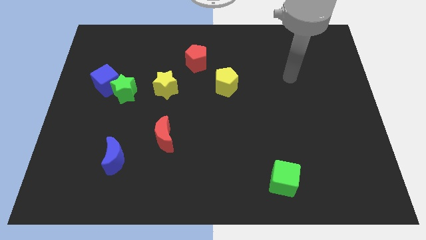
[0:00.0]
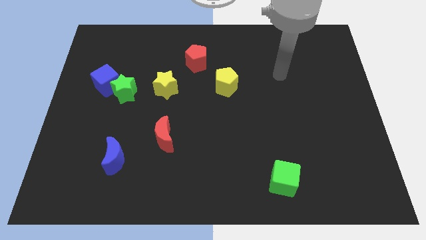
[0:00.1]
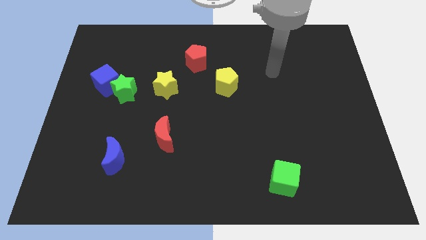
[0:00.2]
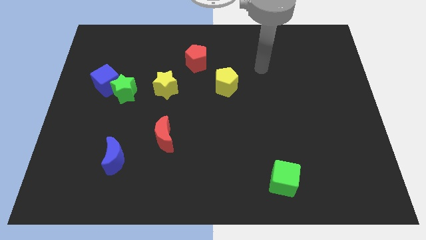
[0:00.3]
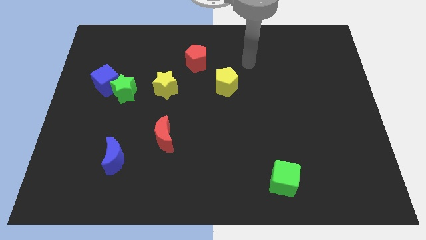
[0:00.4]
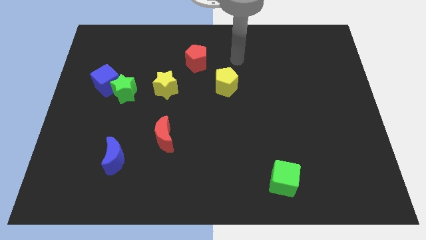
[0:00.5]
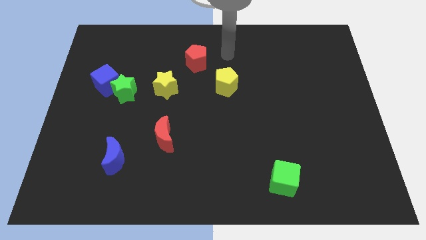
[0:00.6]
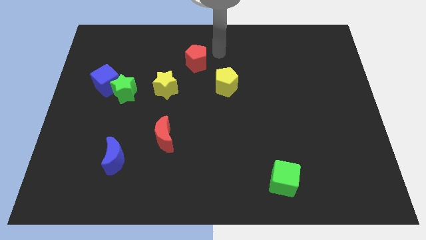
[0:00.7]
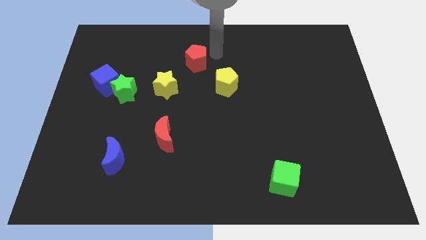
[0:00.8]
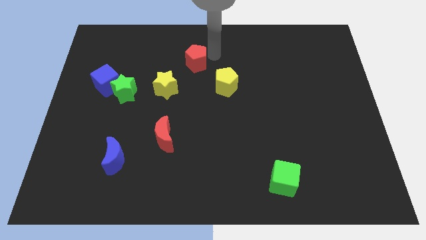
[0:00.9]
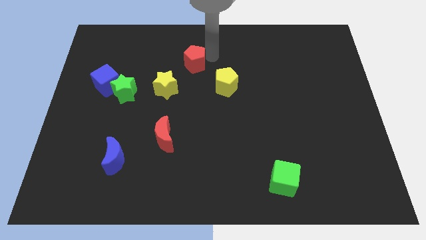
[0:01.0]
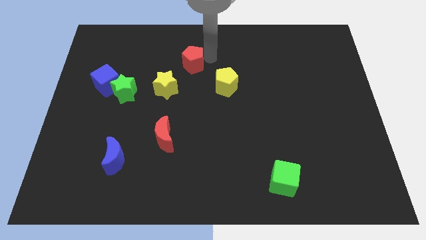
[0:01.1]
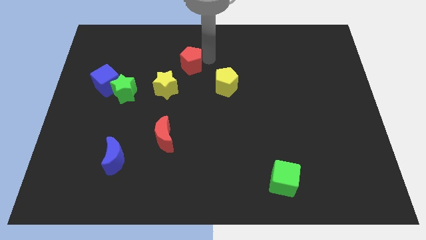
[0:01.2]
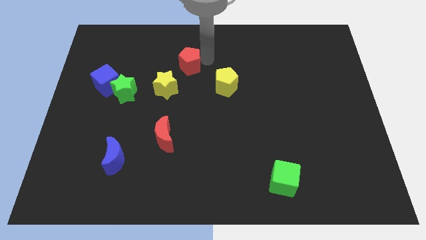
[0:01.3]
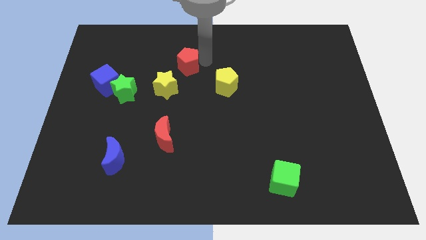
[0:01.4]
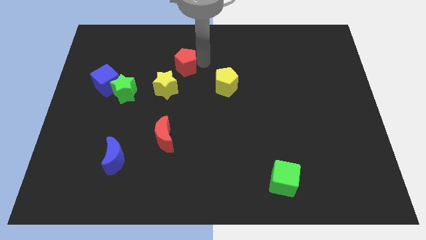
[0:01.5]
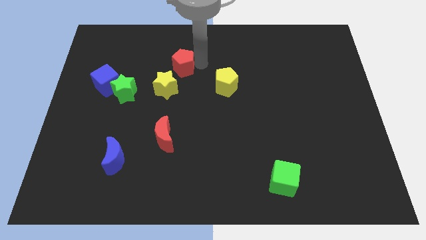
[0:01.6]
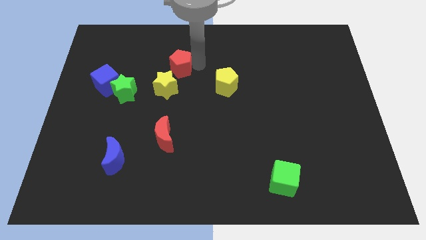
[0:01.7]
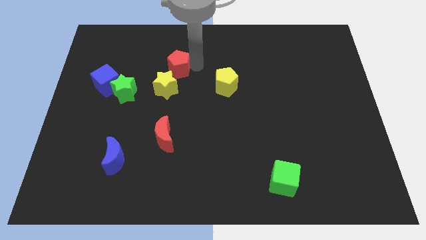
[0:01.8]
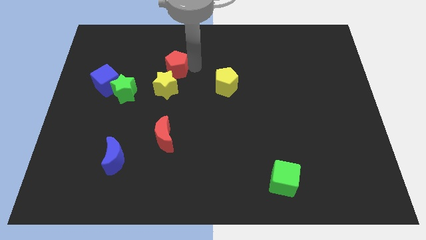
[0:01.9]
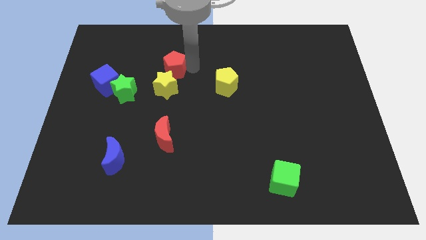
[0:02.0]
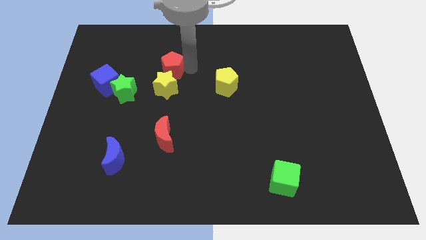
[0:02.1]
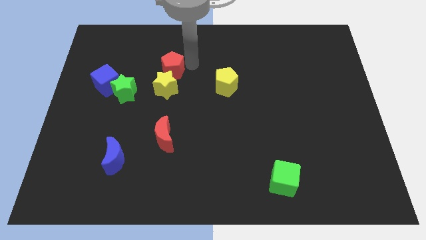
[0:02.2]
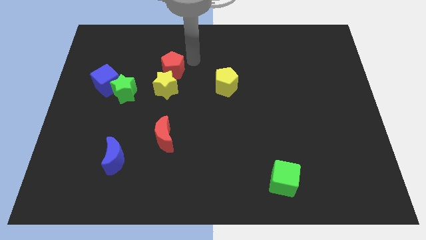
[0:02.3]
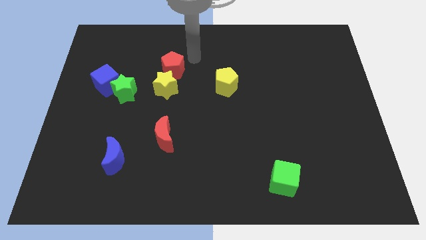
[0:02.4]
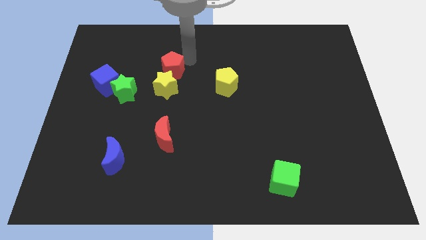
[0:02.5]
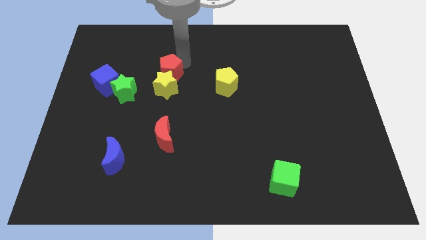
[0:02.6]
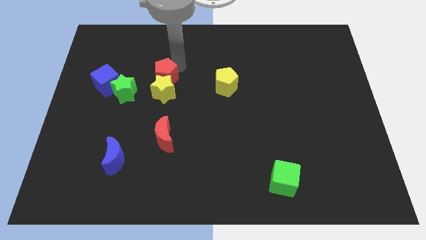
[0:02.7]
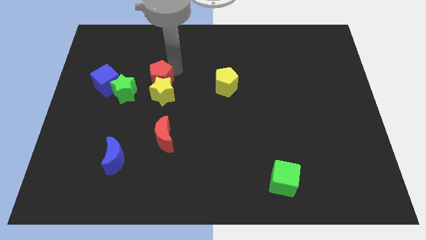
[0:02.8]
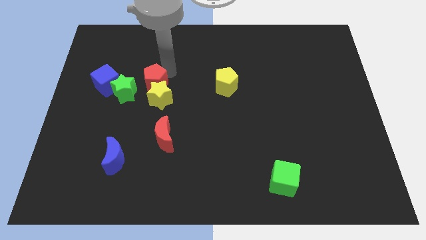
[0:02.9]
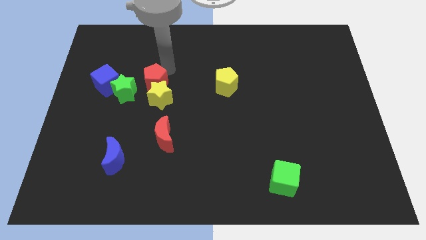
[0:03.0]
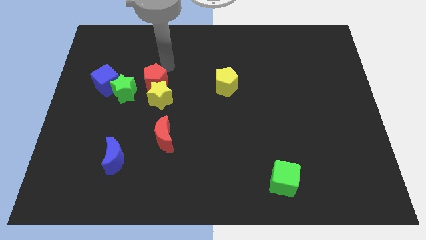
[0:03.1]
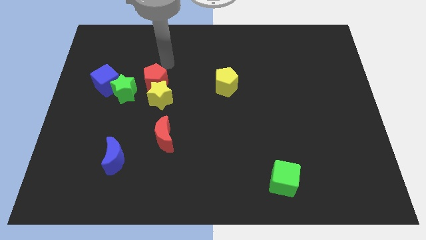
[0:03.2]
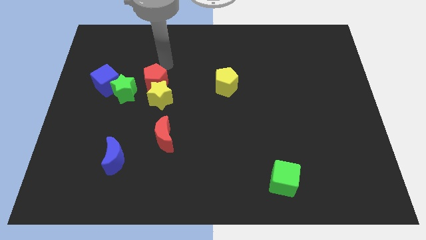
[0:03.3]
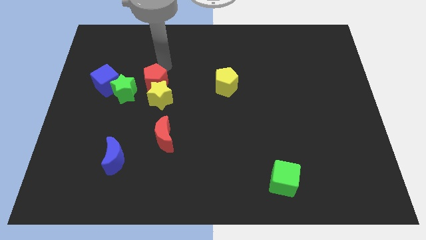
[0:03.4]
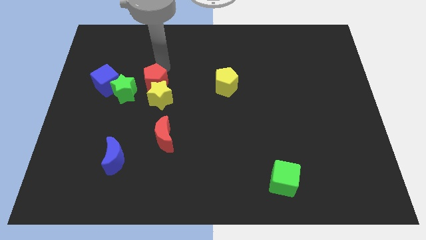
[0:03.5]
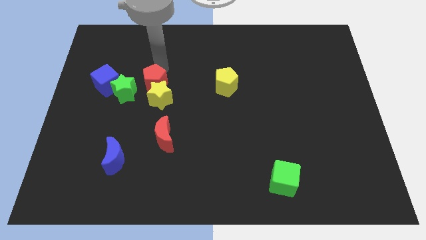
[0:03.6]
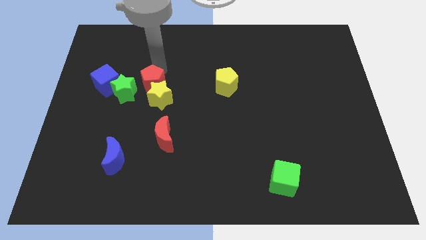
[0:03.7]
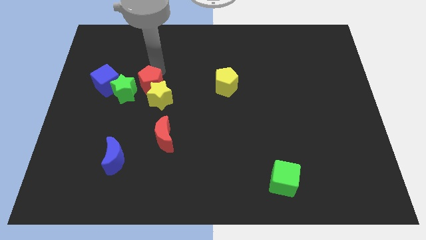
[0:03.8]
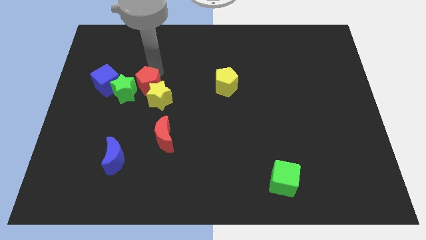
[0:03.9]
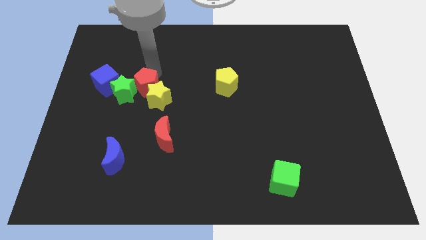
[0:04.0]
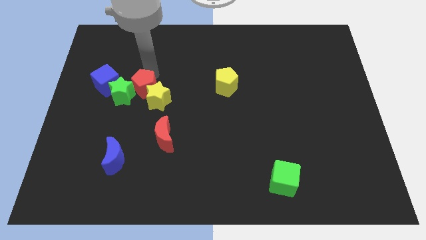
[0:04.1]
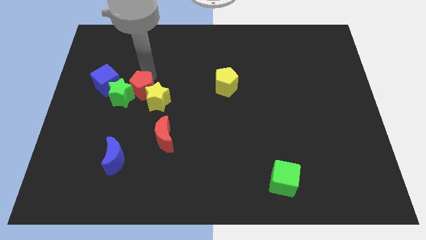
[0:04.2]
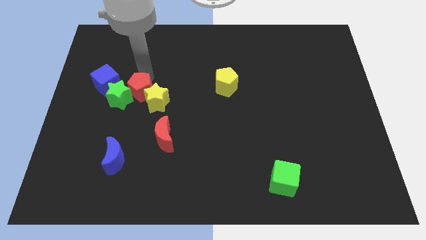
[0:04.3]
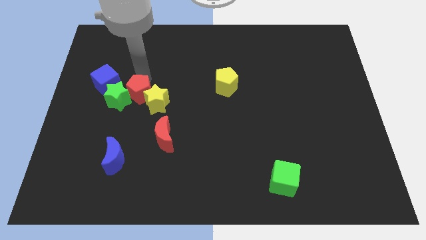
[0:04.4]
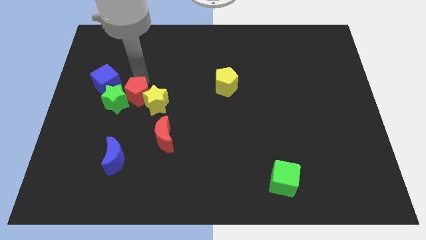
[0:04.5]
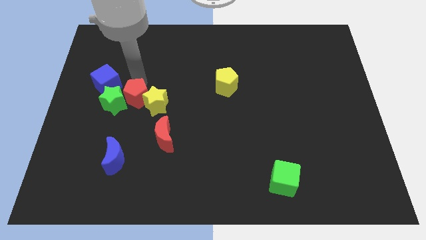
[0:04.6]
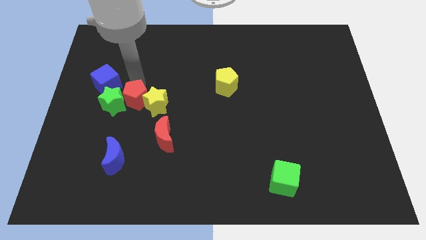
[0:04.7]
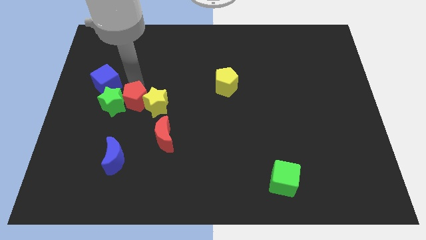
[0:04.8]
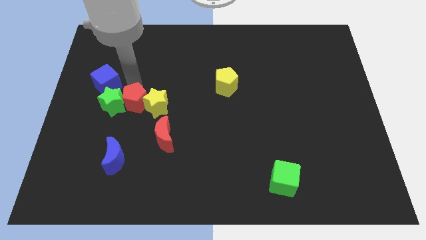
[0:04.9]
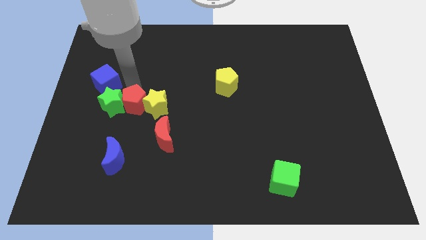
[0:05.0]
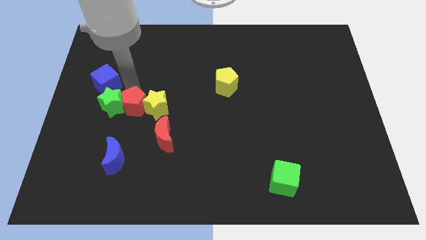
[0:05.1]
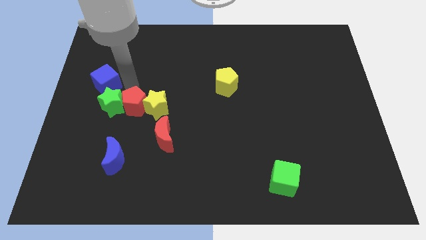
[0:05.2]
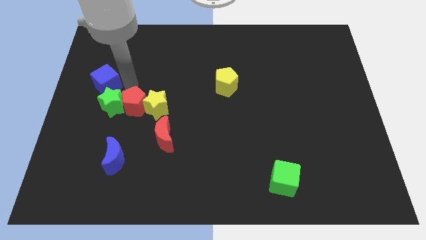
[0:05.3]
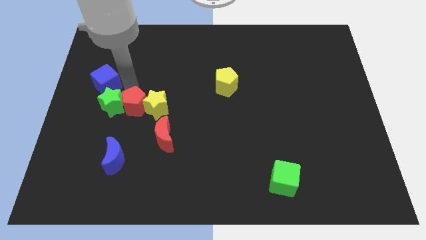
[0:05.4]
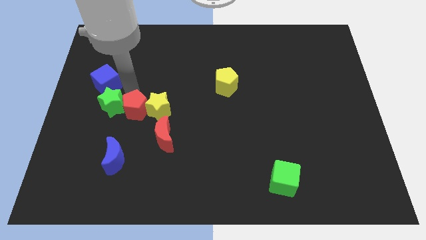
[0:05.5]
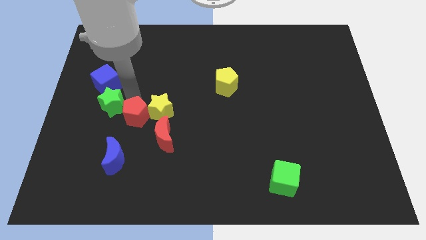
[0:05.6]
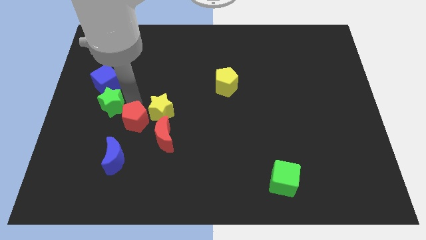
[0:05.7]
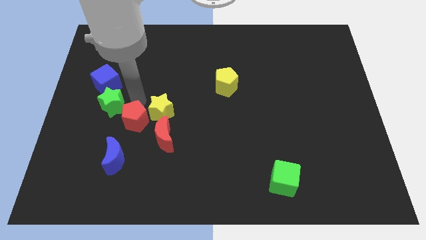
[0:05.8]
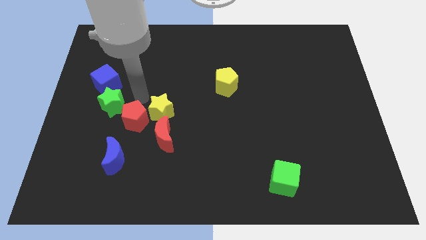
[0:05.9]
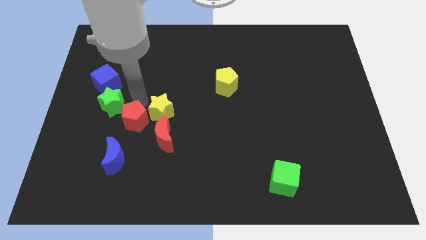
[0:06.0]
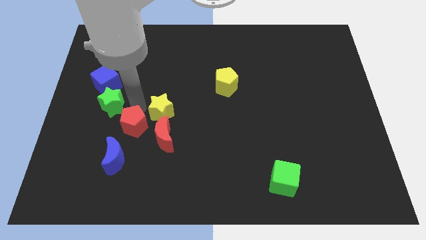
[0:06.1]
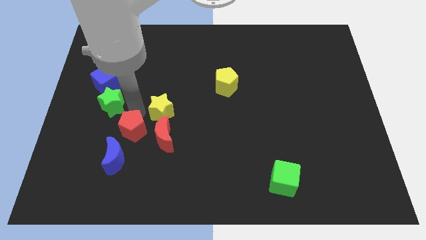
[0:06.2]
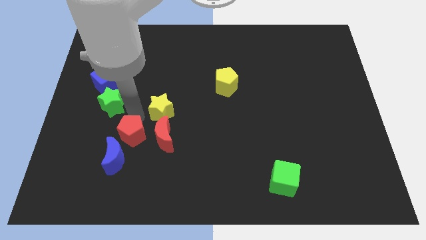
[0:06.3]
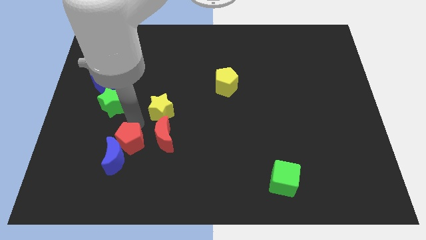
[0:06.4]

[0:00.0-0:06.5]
put the red pentagon towards the blue moon
